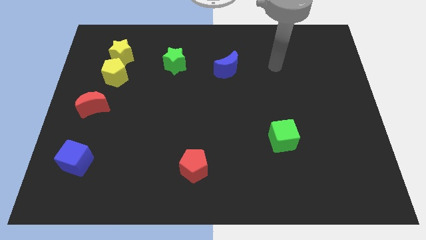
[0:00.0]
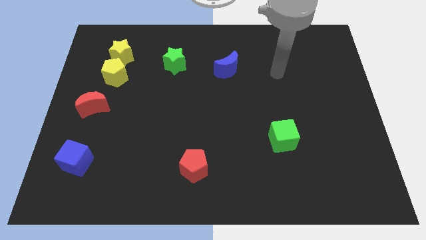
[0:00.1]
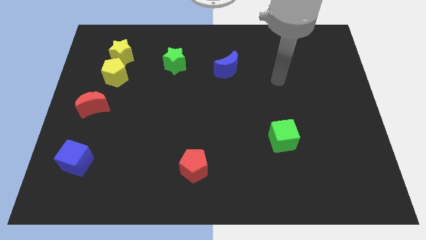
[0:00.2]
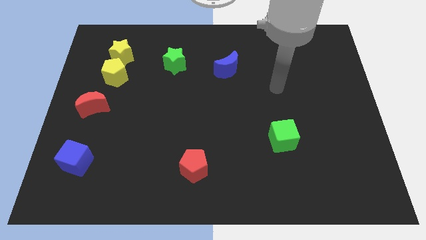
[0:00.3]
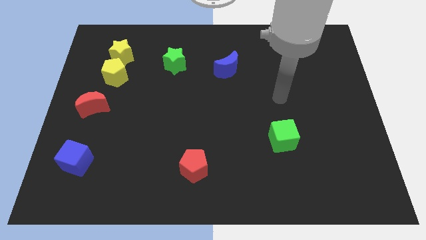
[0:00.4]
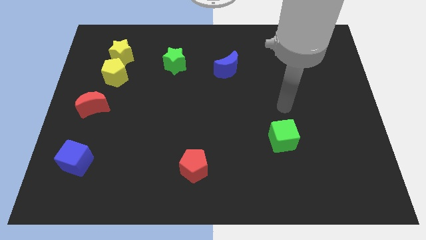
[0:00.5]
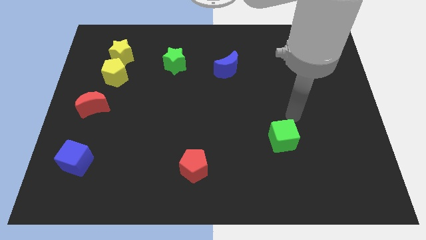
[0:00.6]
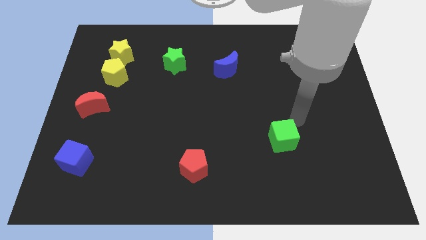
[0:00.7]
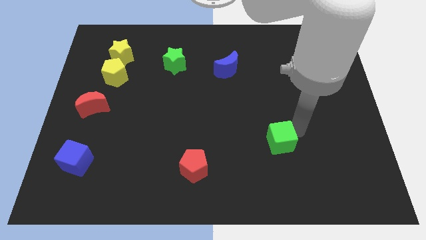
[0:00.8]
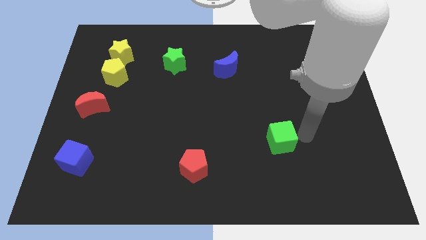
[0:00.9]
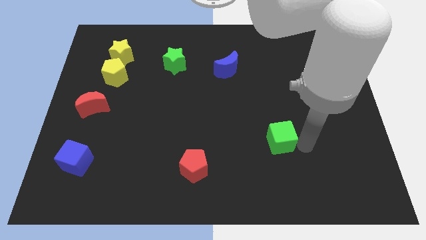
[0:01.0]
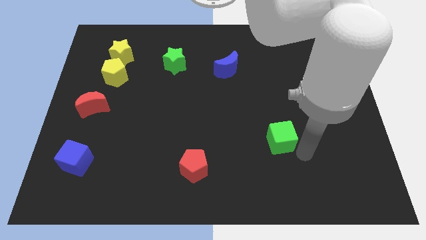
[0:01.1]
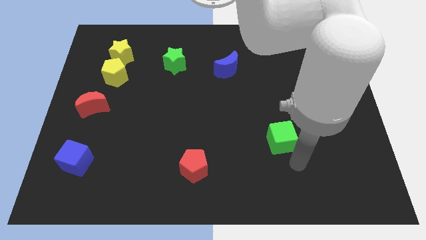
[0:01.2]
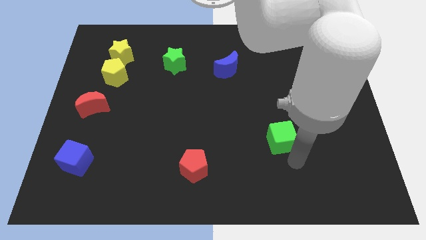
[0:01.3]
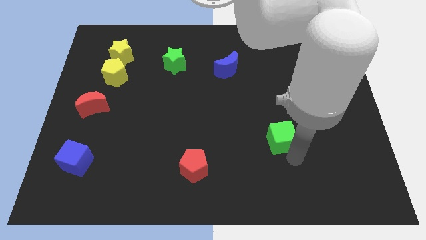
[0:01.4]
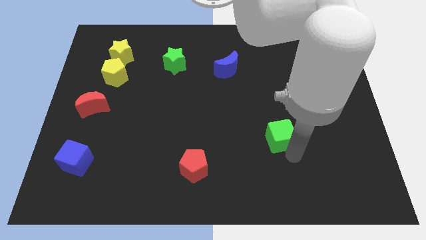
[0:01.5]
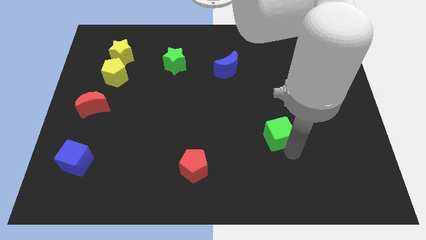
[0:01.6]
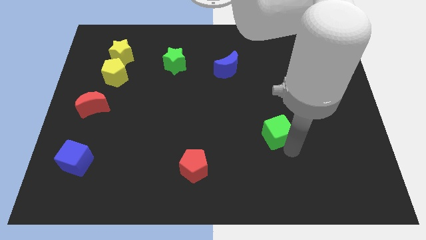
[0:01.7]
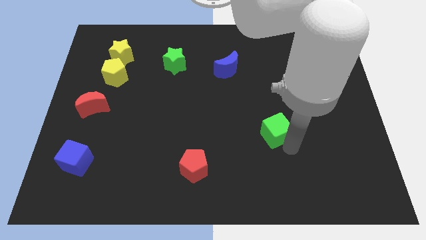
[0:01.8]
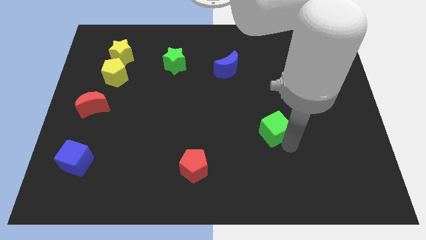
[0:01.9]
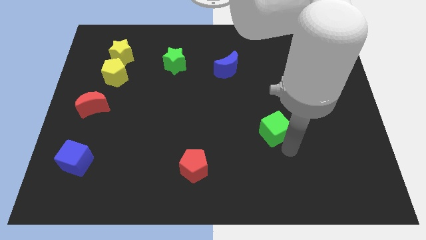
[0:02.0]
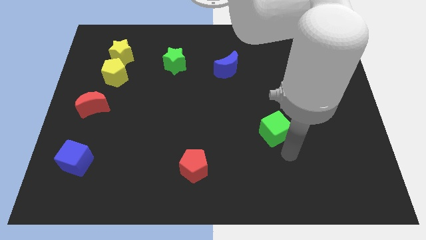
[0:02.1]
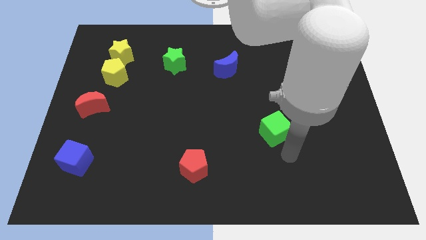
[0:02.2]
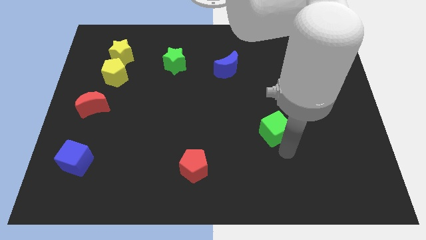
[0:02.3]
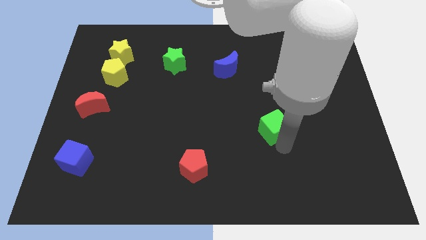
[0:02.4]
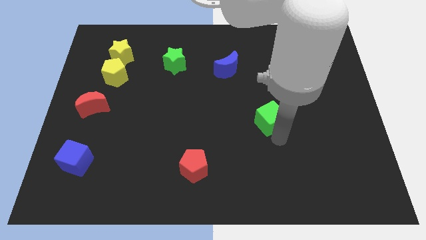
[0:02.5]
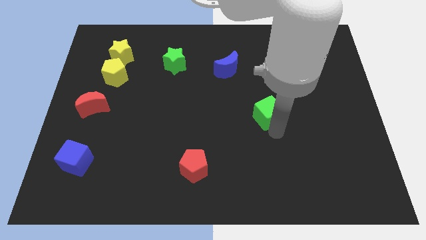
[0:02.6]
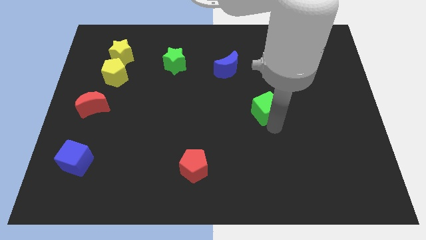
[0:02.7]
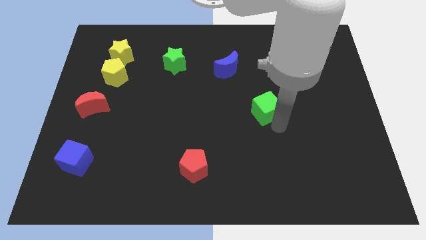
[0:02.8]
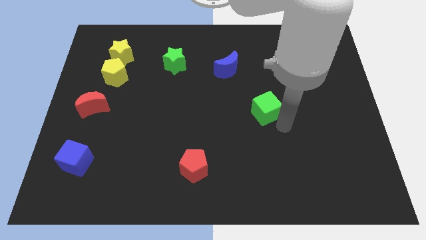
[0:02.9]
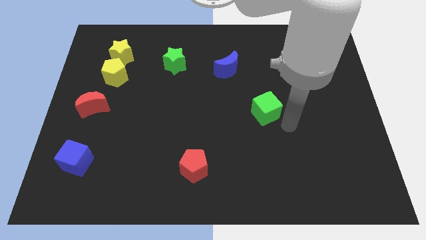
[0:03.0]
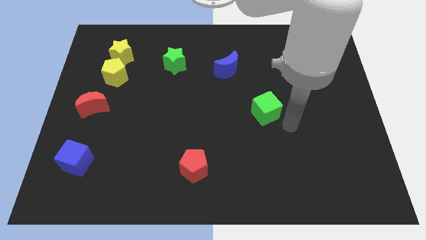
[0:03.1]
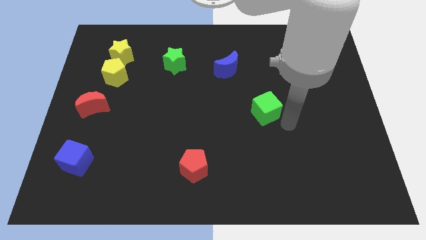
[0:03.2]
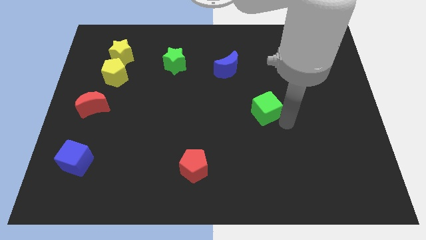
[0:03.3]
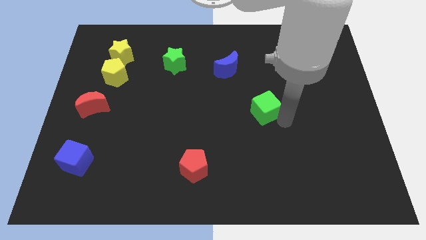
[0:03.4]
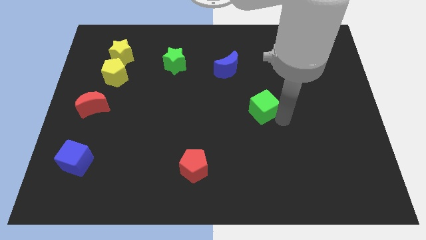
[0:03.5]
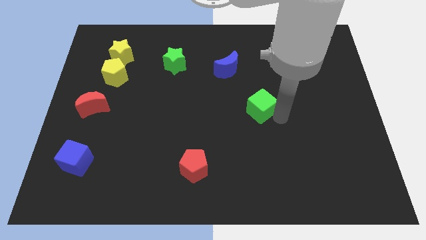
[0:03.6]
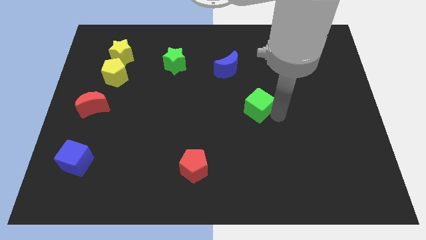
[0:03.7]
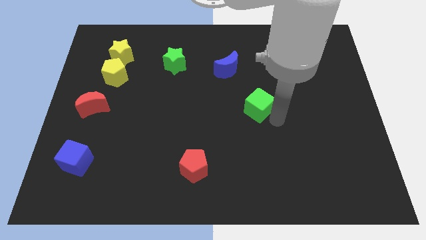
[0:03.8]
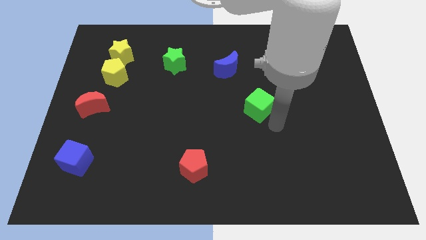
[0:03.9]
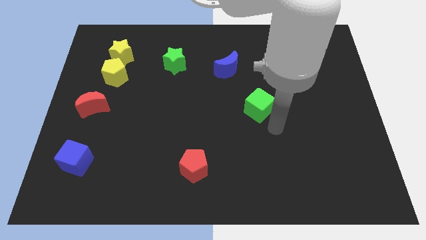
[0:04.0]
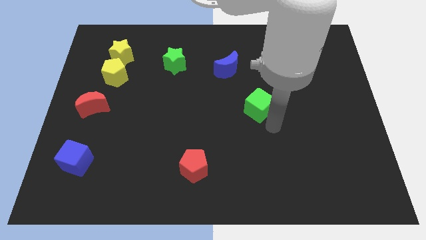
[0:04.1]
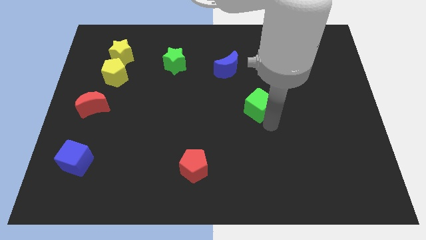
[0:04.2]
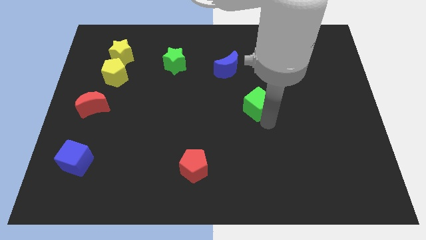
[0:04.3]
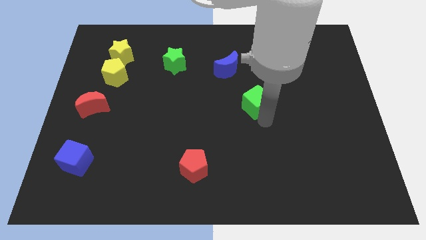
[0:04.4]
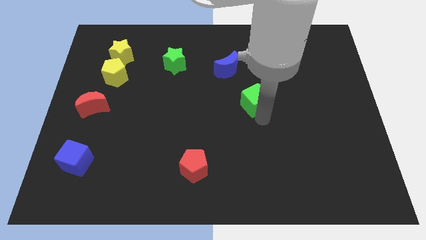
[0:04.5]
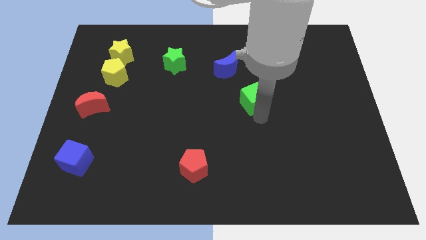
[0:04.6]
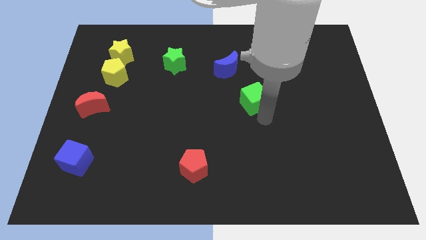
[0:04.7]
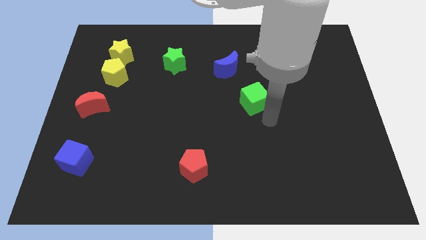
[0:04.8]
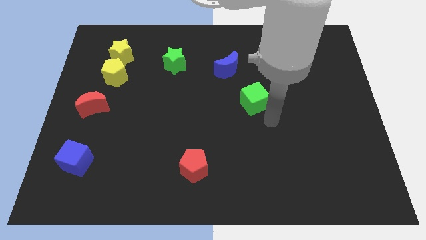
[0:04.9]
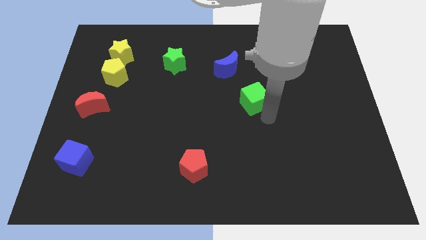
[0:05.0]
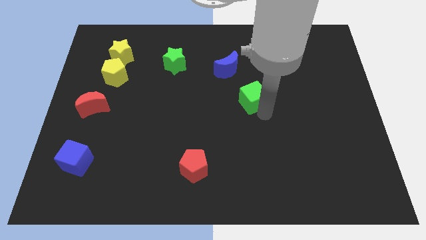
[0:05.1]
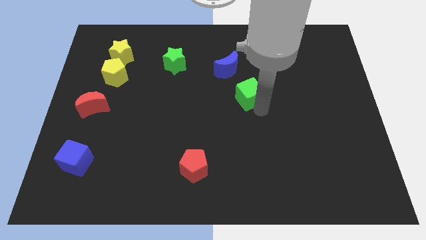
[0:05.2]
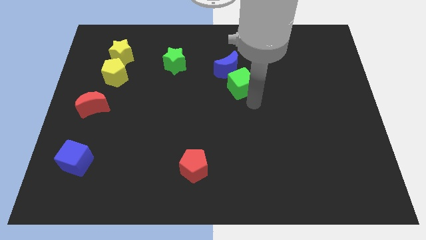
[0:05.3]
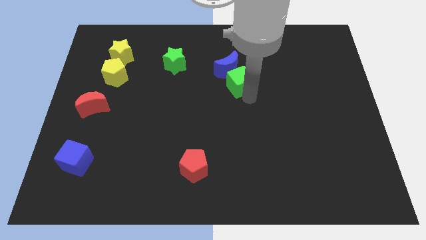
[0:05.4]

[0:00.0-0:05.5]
move the green cube towards the blue moon

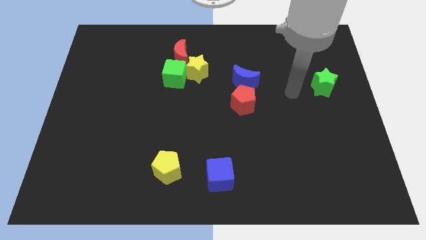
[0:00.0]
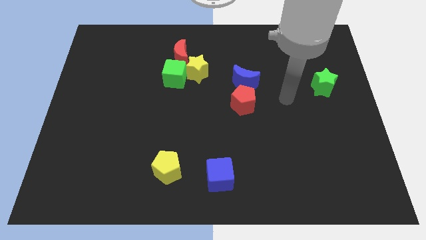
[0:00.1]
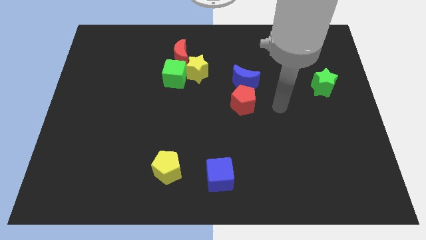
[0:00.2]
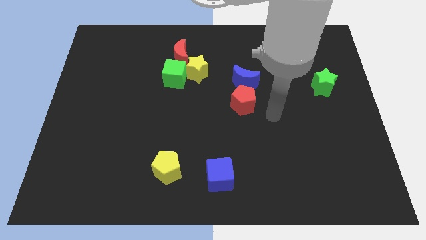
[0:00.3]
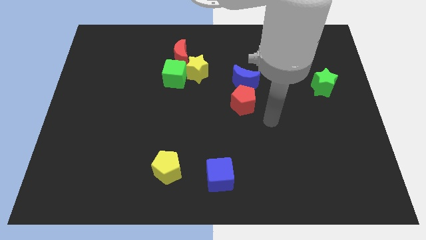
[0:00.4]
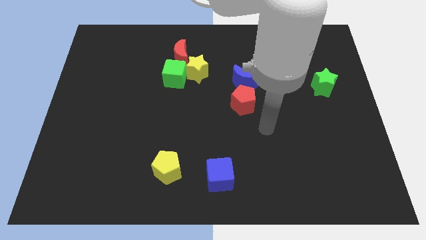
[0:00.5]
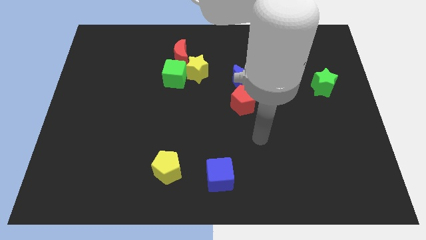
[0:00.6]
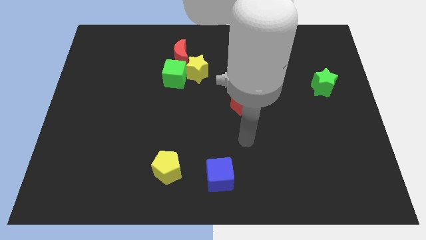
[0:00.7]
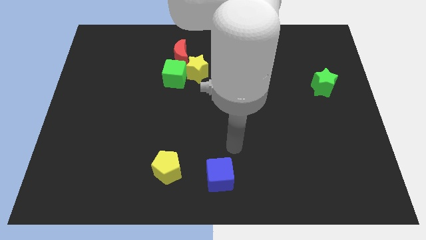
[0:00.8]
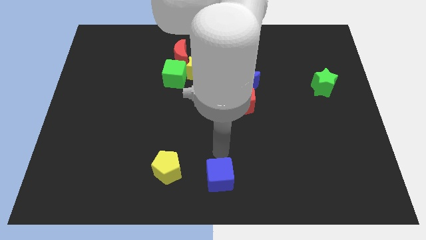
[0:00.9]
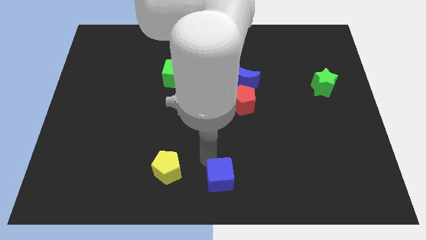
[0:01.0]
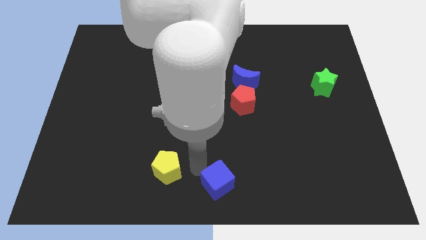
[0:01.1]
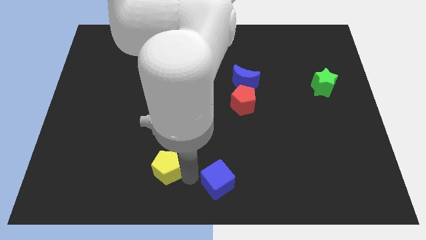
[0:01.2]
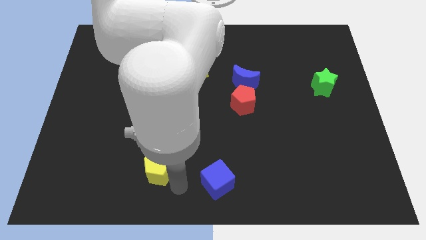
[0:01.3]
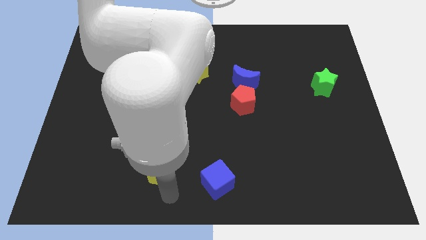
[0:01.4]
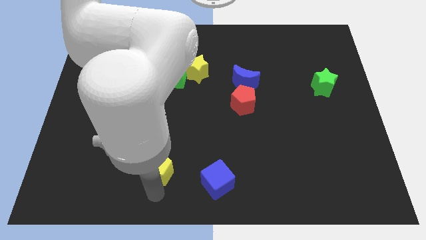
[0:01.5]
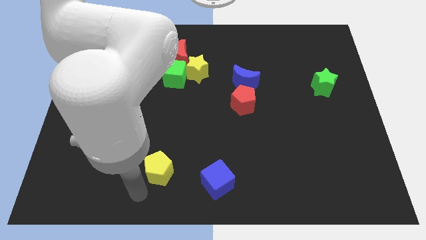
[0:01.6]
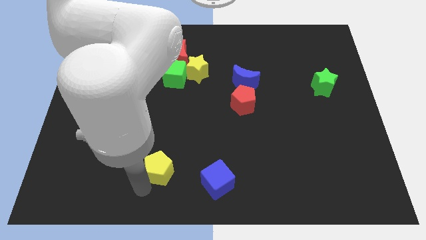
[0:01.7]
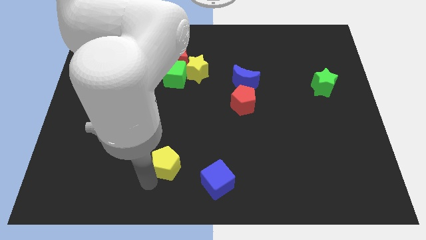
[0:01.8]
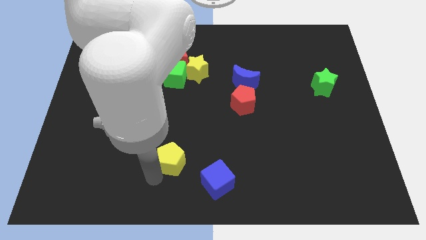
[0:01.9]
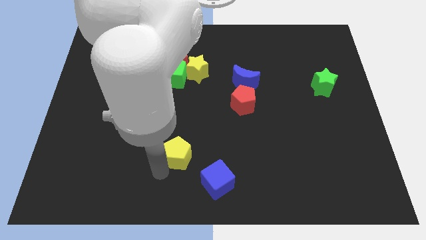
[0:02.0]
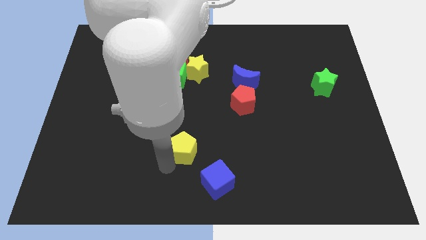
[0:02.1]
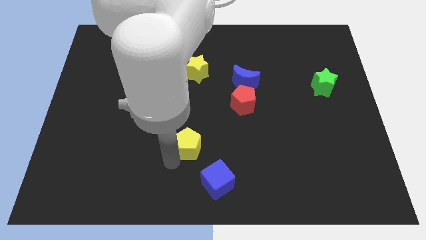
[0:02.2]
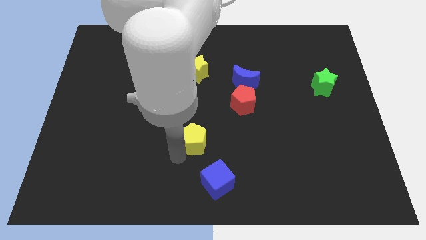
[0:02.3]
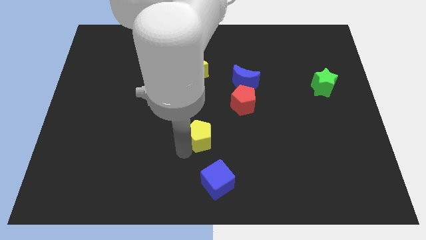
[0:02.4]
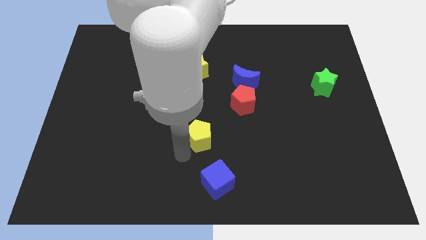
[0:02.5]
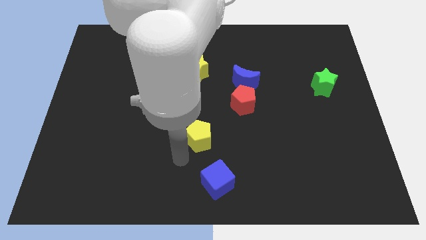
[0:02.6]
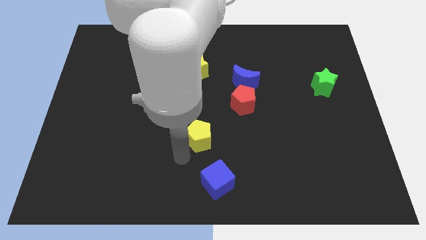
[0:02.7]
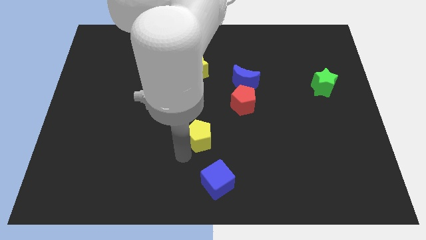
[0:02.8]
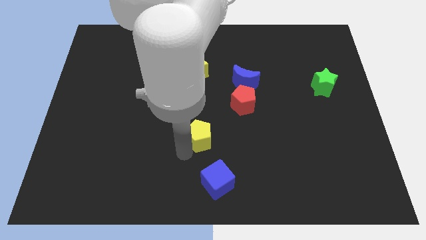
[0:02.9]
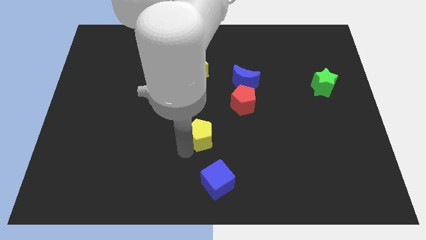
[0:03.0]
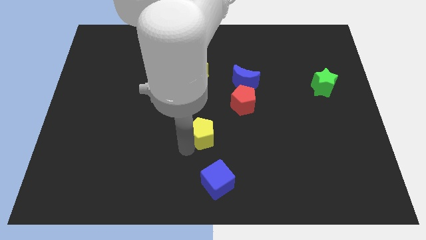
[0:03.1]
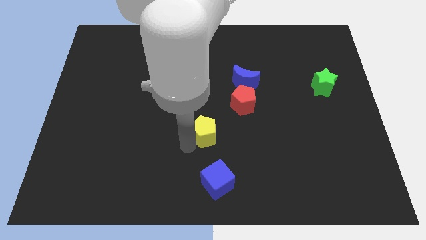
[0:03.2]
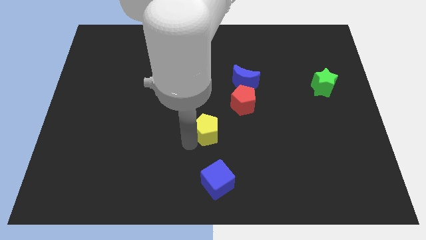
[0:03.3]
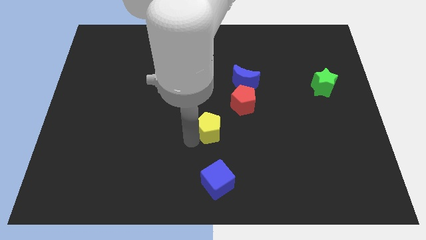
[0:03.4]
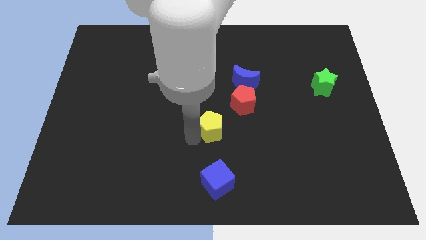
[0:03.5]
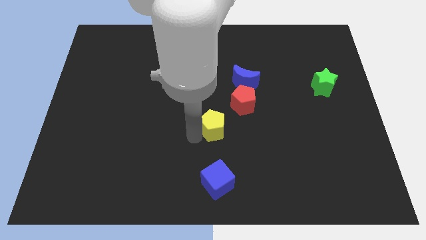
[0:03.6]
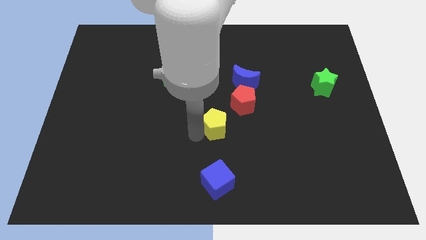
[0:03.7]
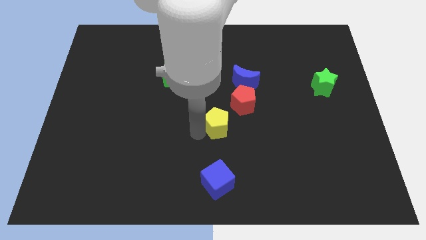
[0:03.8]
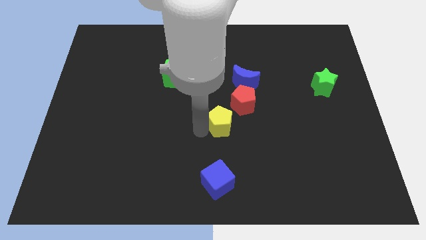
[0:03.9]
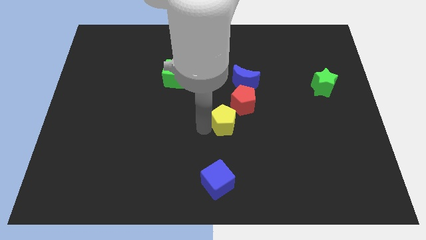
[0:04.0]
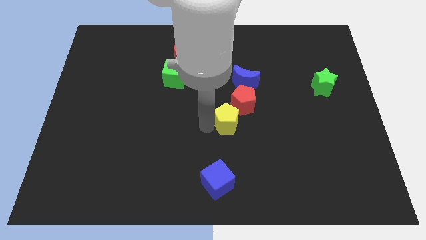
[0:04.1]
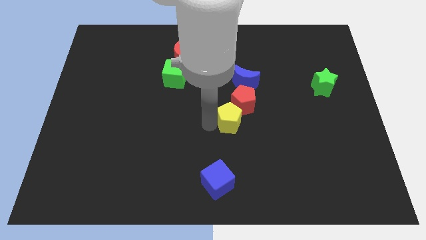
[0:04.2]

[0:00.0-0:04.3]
move the yellow pentagon next to the red pentagon
